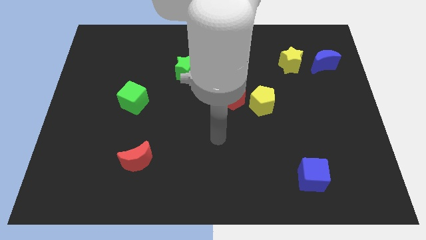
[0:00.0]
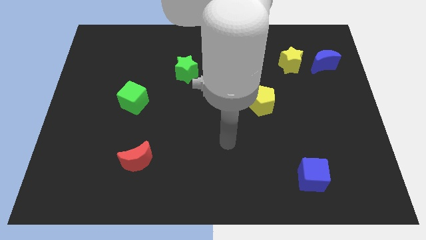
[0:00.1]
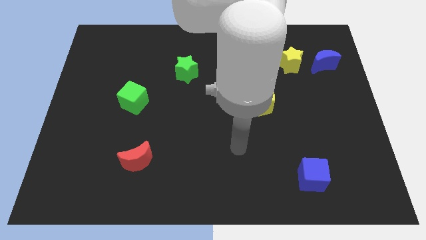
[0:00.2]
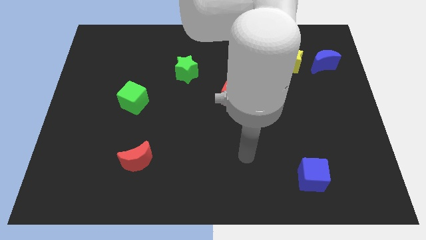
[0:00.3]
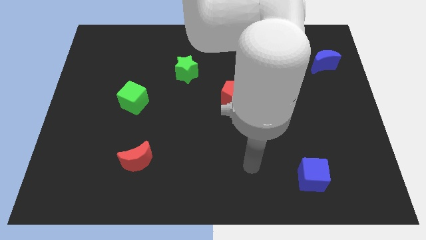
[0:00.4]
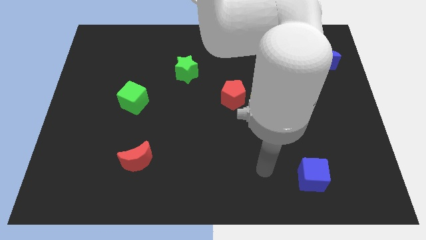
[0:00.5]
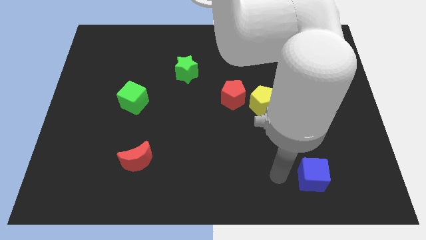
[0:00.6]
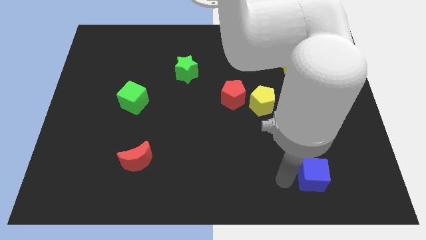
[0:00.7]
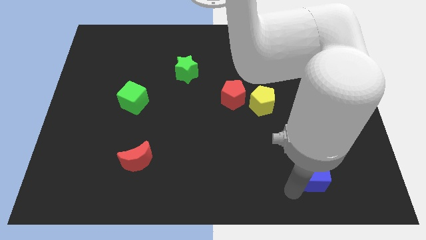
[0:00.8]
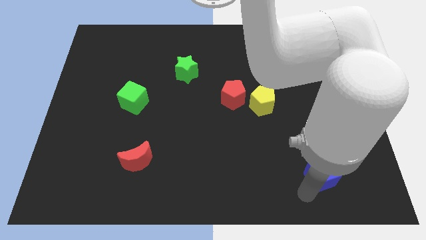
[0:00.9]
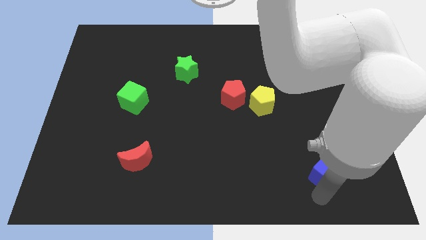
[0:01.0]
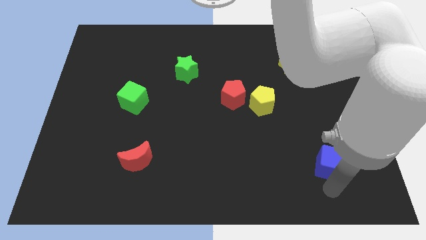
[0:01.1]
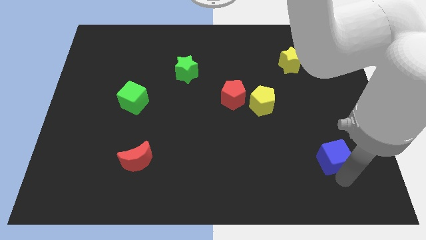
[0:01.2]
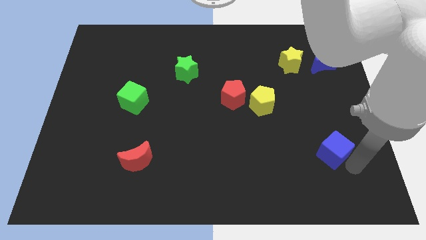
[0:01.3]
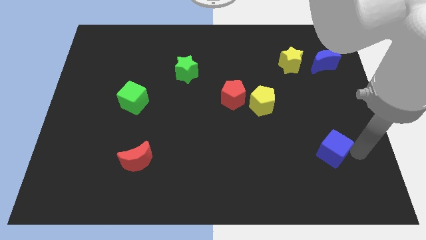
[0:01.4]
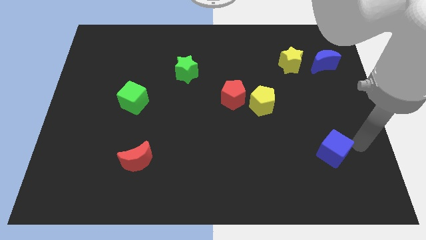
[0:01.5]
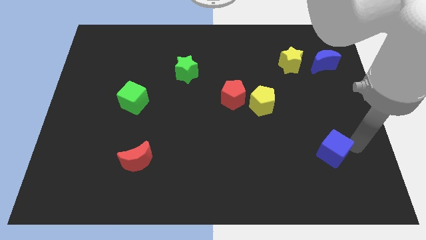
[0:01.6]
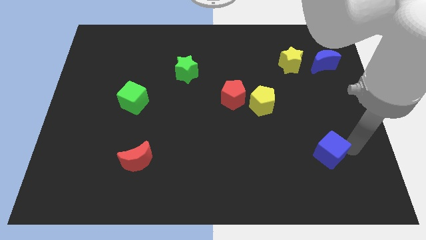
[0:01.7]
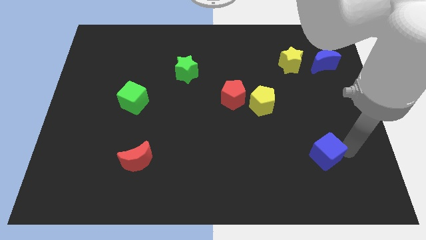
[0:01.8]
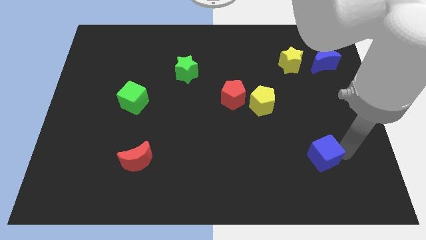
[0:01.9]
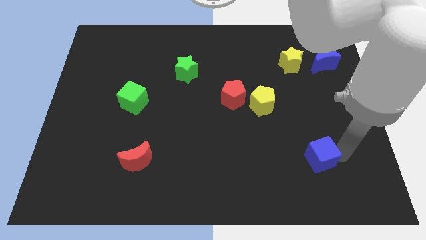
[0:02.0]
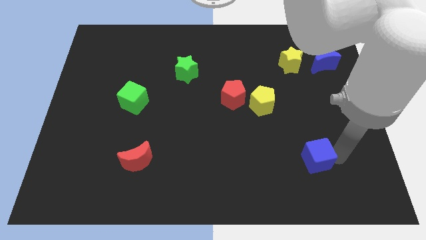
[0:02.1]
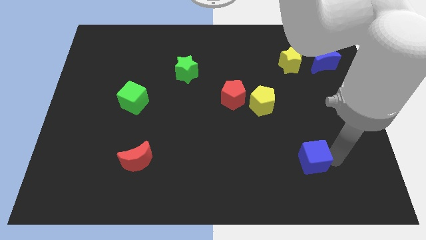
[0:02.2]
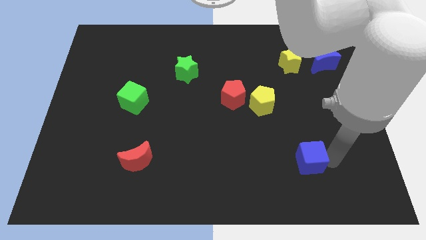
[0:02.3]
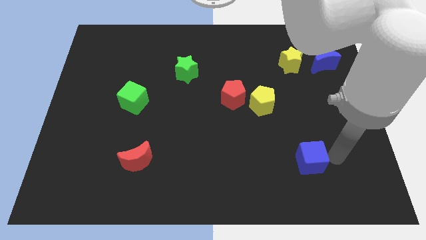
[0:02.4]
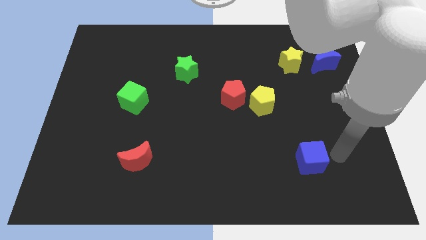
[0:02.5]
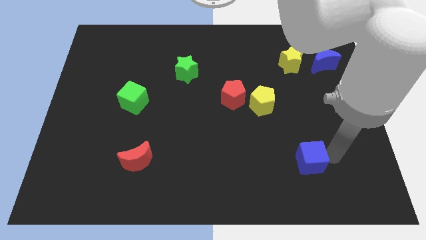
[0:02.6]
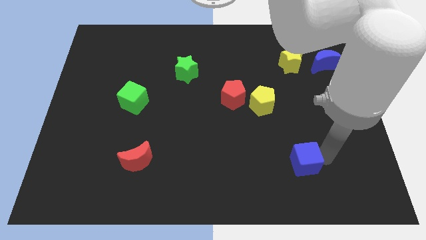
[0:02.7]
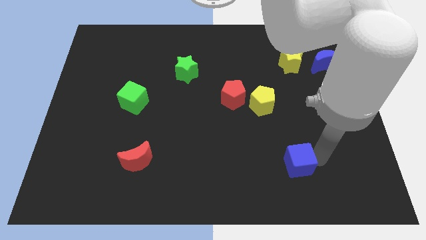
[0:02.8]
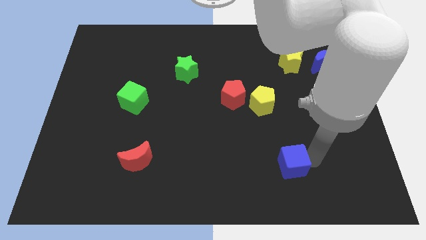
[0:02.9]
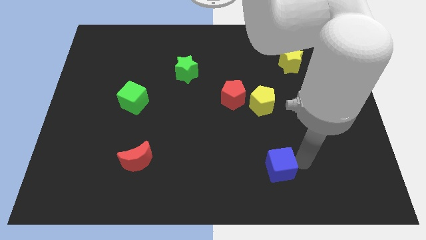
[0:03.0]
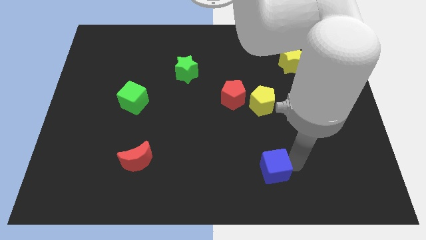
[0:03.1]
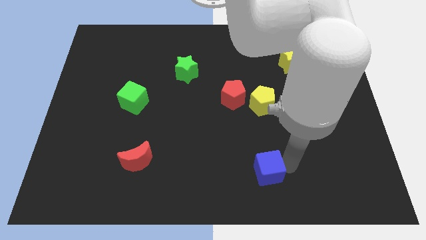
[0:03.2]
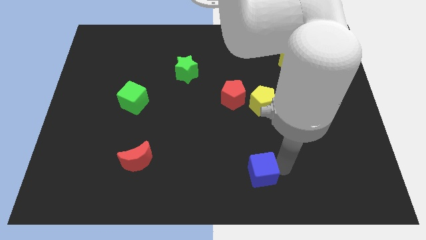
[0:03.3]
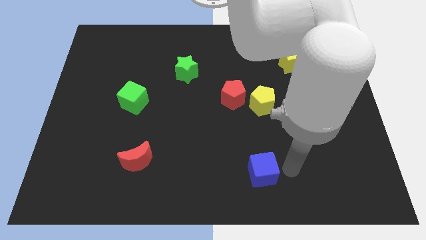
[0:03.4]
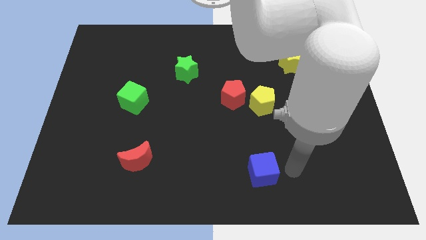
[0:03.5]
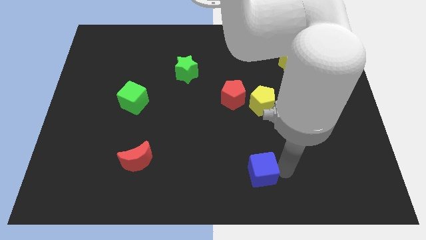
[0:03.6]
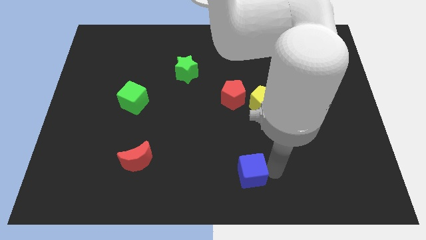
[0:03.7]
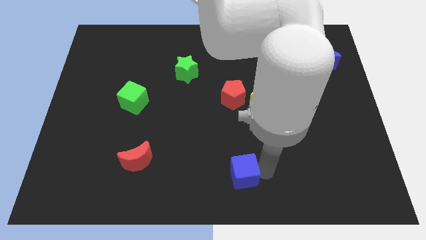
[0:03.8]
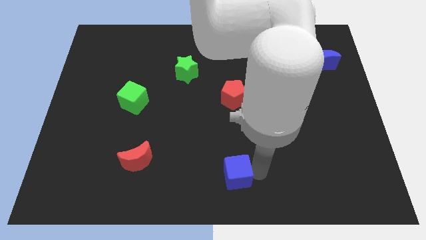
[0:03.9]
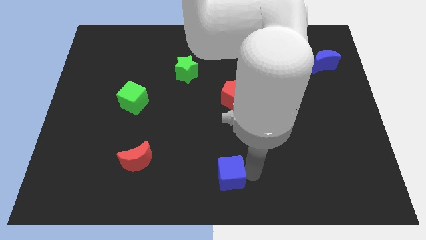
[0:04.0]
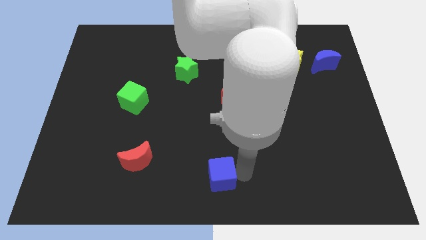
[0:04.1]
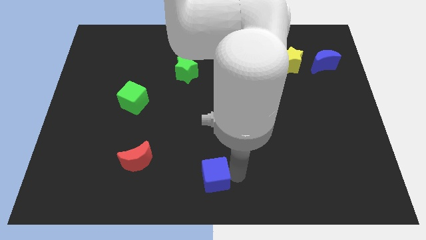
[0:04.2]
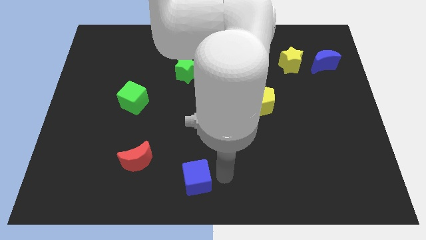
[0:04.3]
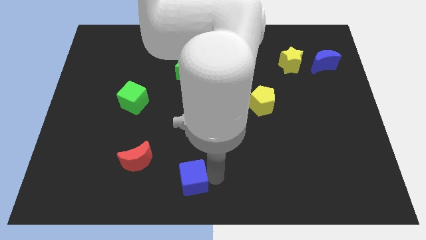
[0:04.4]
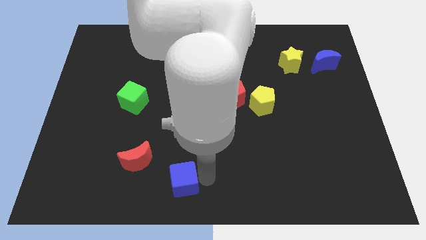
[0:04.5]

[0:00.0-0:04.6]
push the blue cube to the bottom right side of the red moon

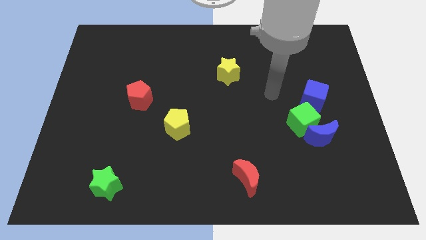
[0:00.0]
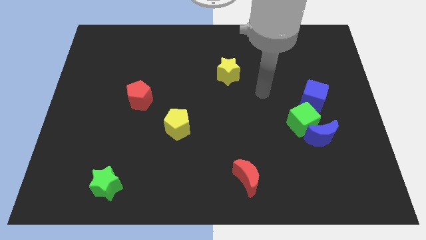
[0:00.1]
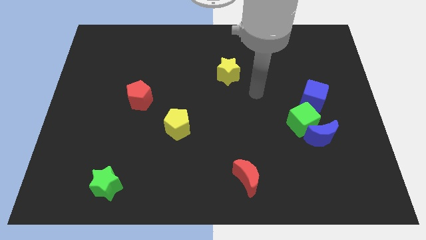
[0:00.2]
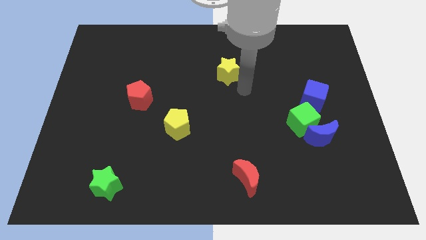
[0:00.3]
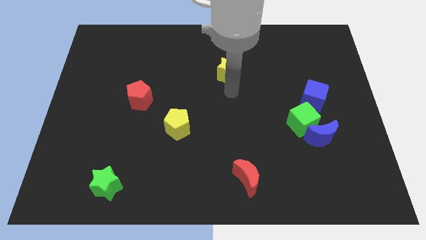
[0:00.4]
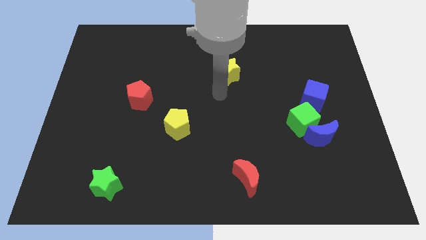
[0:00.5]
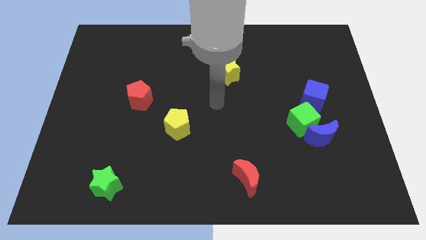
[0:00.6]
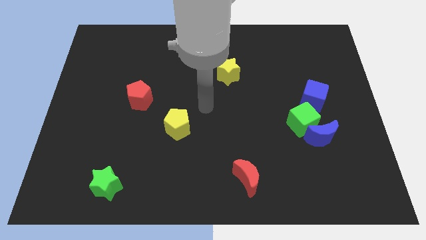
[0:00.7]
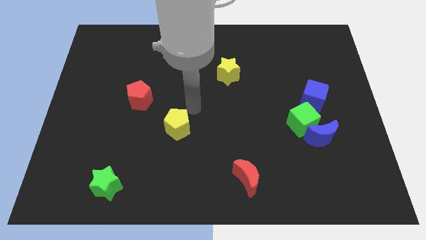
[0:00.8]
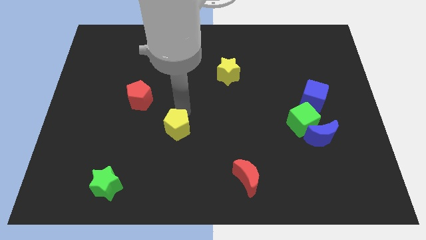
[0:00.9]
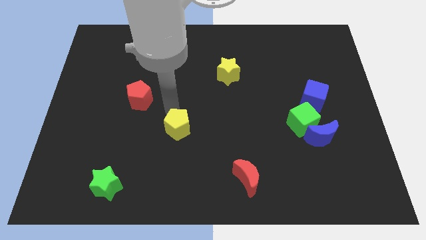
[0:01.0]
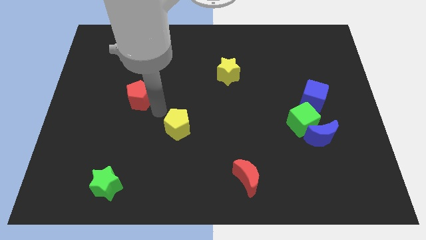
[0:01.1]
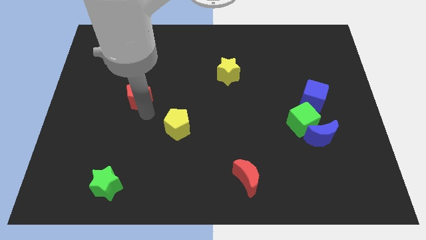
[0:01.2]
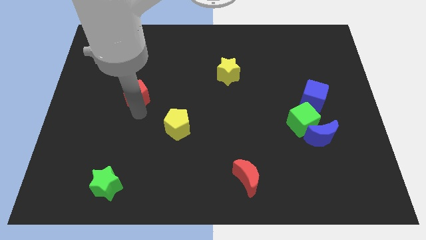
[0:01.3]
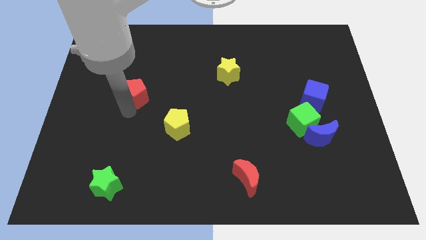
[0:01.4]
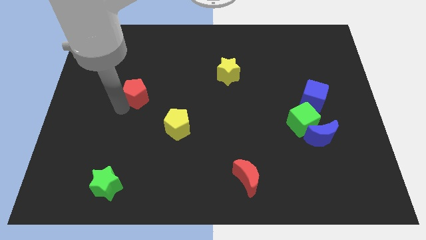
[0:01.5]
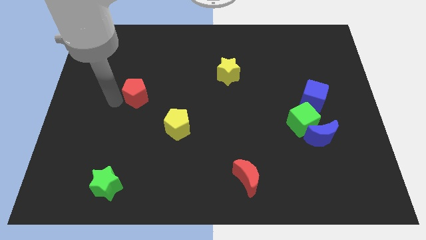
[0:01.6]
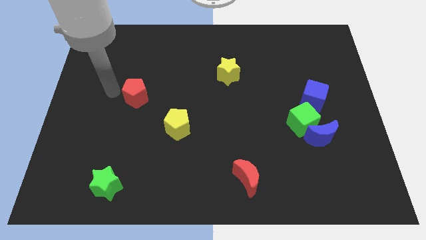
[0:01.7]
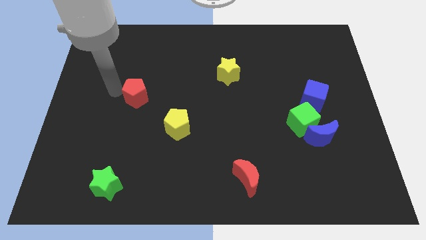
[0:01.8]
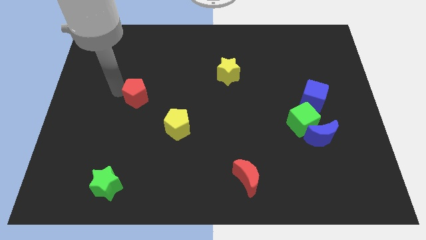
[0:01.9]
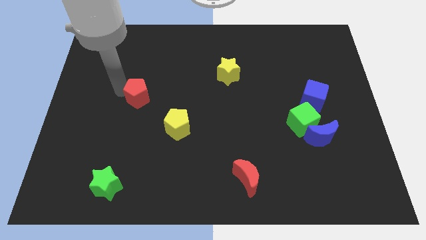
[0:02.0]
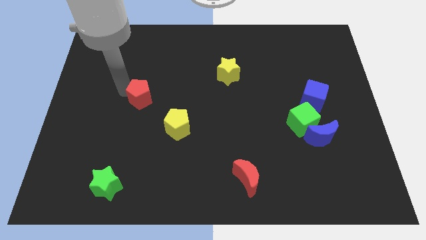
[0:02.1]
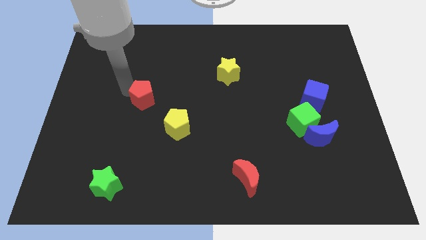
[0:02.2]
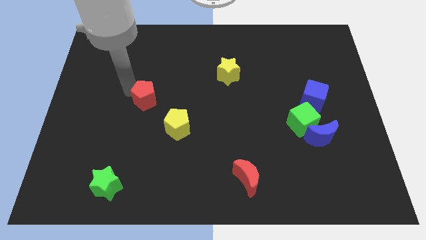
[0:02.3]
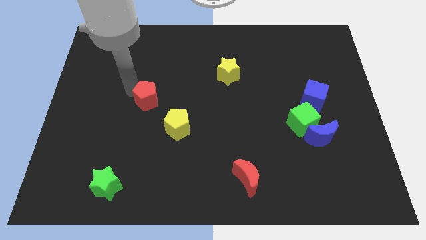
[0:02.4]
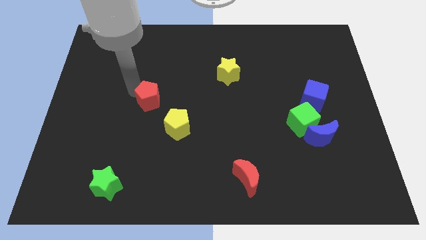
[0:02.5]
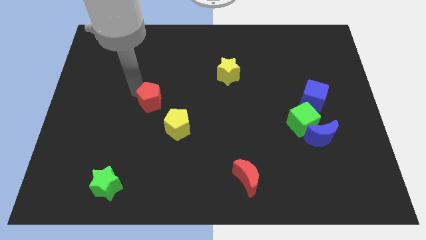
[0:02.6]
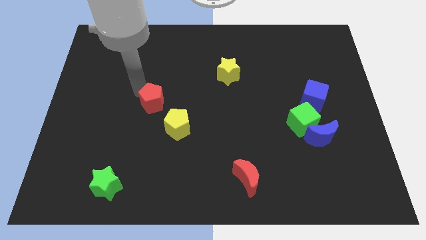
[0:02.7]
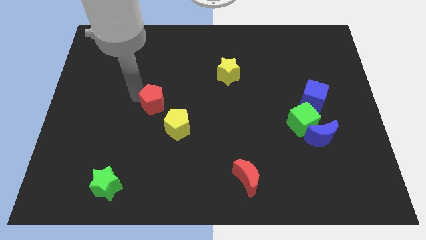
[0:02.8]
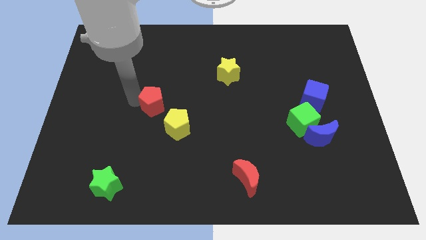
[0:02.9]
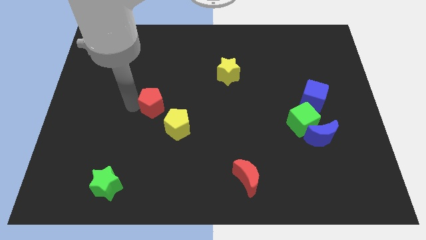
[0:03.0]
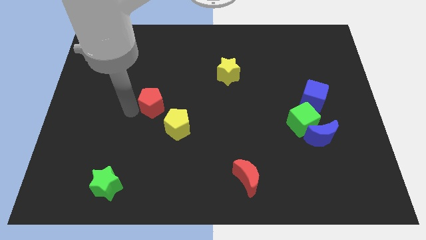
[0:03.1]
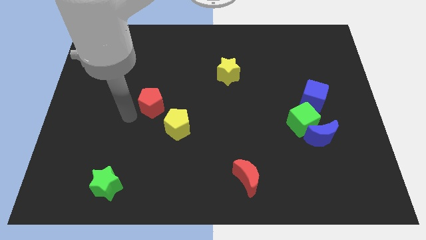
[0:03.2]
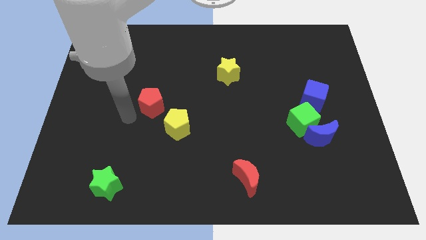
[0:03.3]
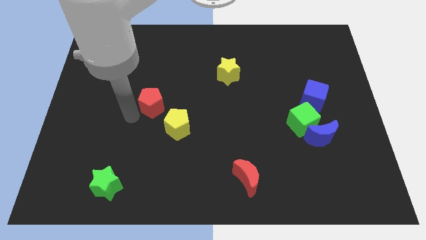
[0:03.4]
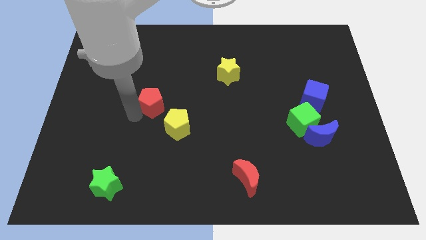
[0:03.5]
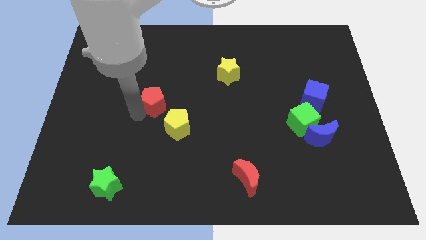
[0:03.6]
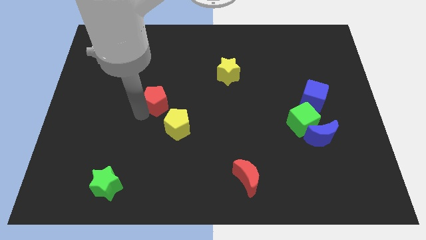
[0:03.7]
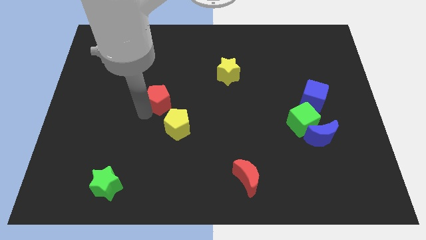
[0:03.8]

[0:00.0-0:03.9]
move the red pentagon to the top side of the yellow pentagon
